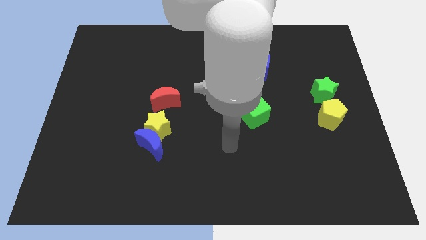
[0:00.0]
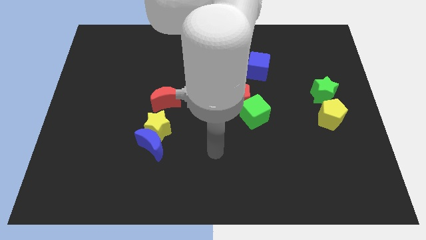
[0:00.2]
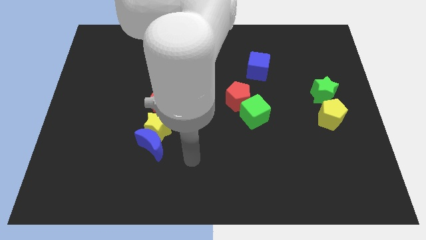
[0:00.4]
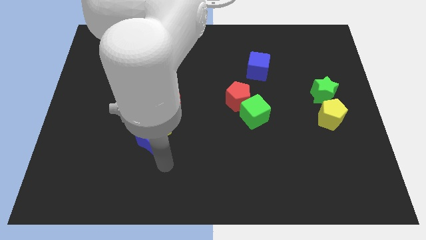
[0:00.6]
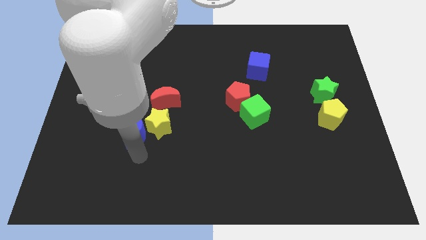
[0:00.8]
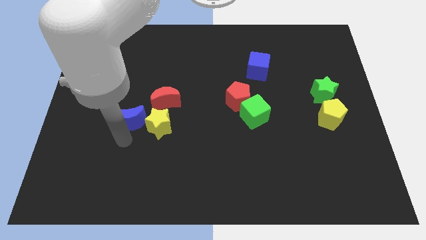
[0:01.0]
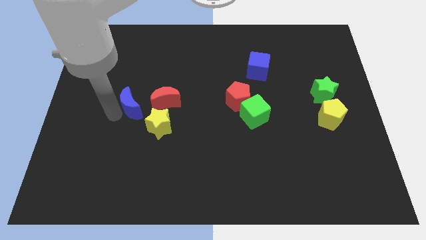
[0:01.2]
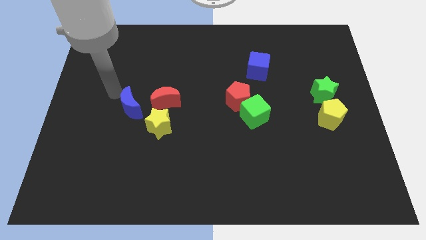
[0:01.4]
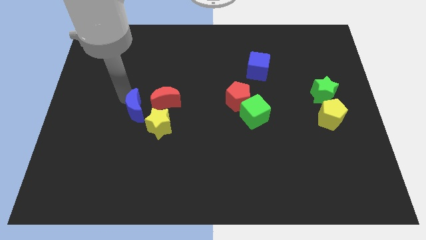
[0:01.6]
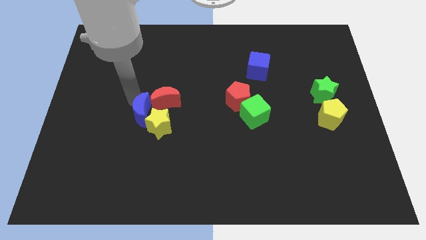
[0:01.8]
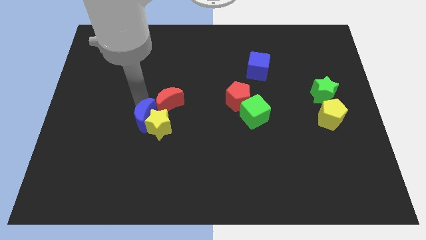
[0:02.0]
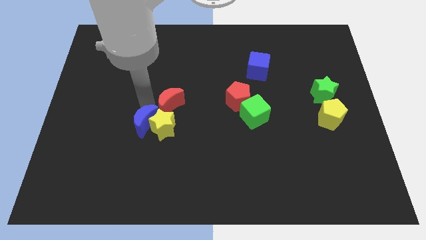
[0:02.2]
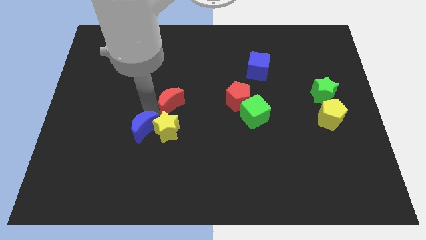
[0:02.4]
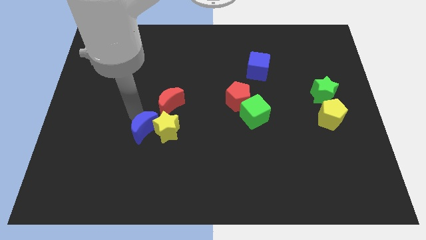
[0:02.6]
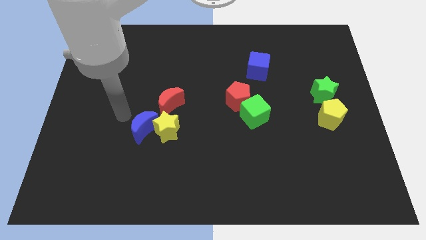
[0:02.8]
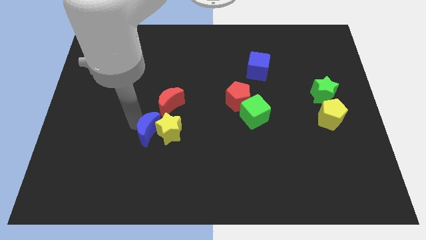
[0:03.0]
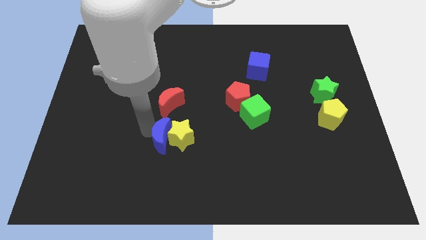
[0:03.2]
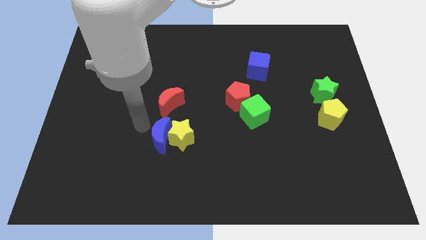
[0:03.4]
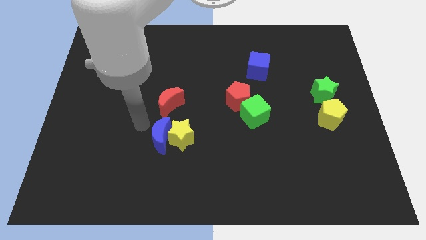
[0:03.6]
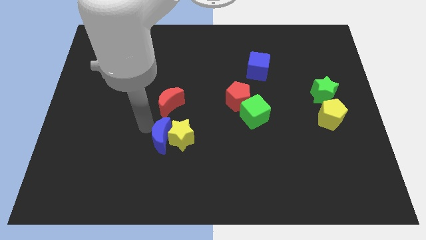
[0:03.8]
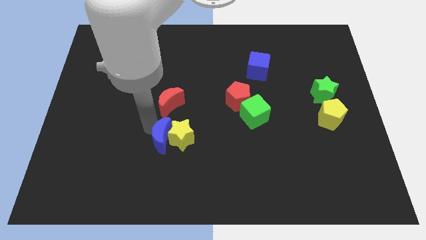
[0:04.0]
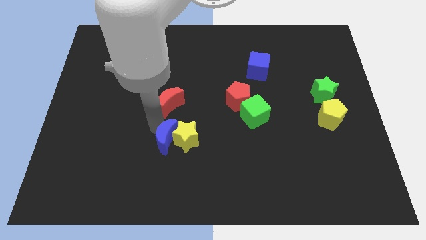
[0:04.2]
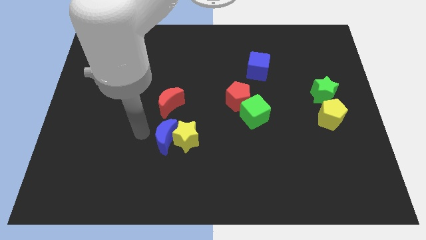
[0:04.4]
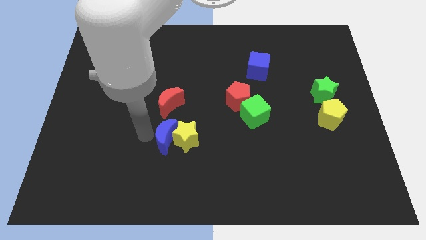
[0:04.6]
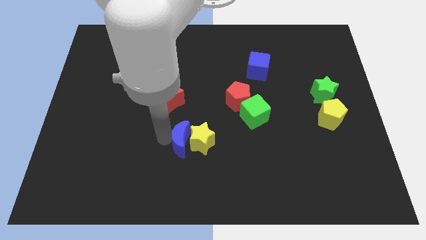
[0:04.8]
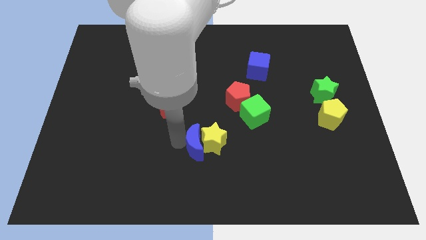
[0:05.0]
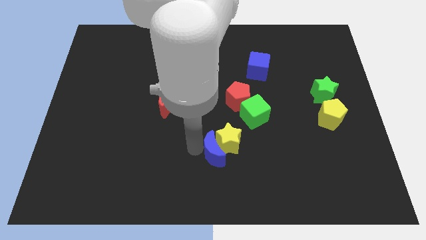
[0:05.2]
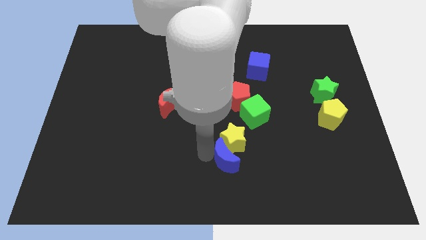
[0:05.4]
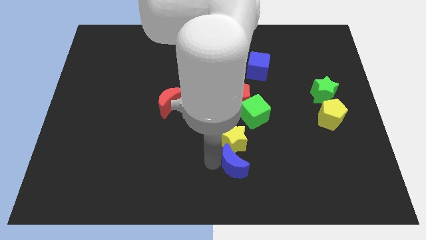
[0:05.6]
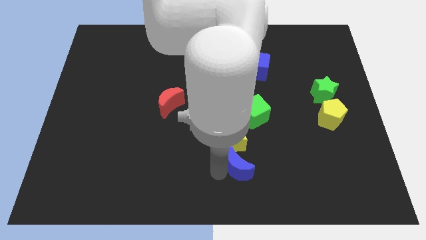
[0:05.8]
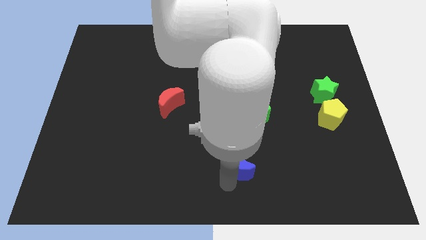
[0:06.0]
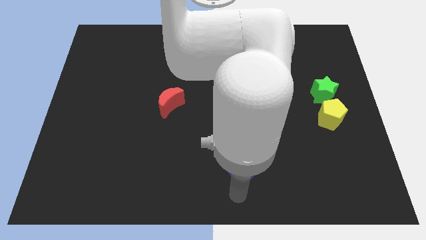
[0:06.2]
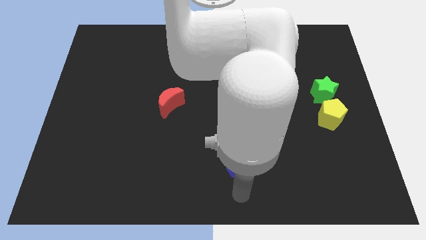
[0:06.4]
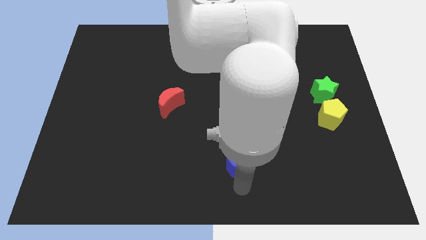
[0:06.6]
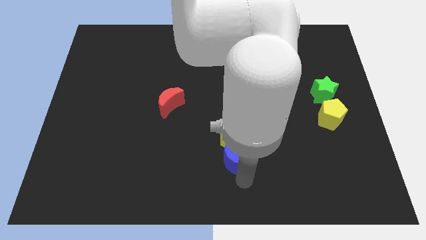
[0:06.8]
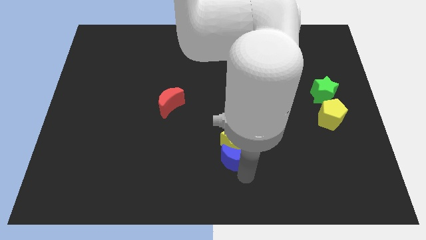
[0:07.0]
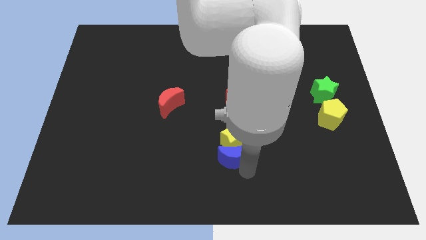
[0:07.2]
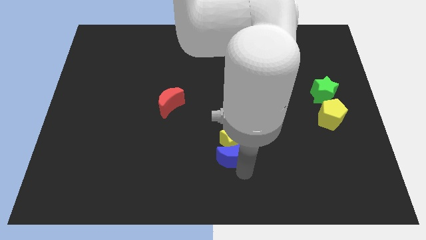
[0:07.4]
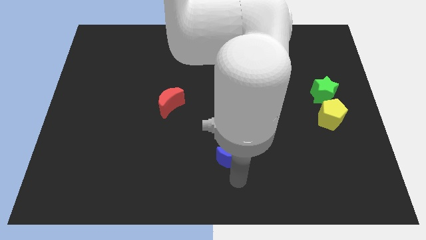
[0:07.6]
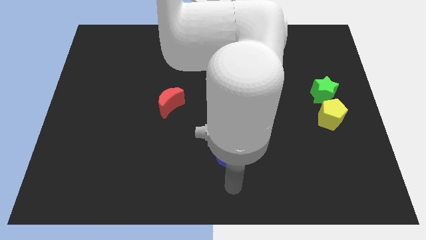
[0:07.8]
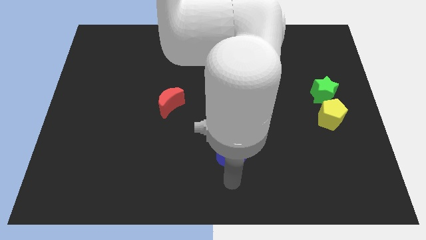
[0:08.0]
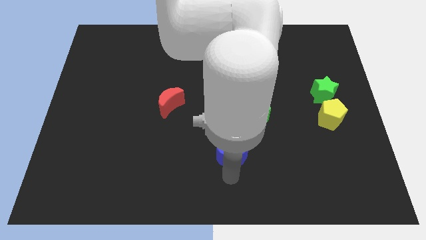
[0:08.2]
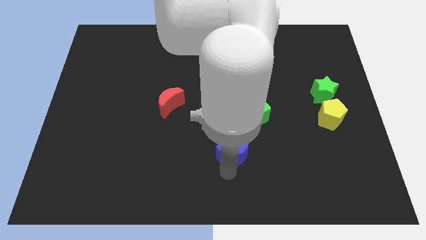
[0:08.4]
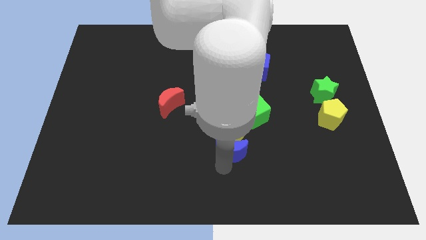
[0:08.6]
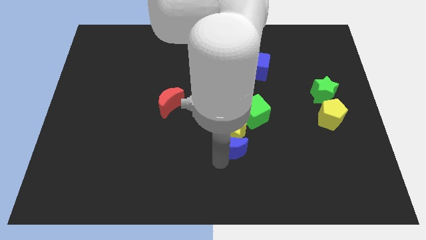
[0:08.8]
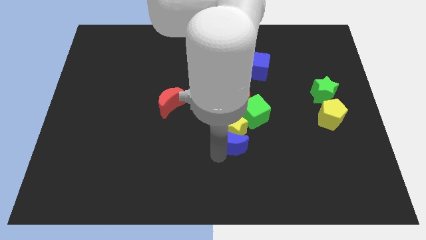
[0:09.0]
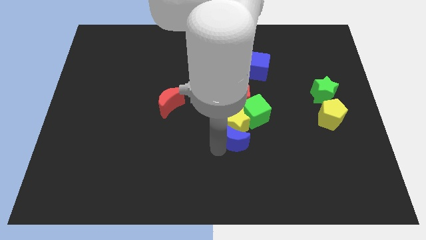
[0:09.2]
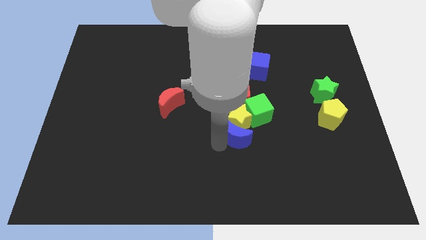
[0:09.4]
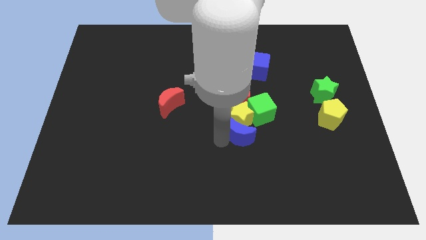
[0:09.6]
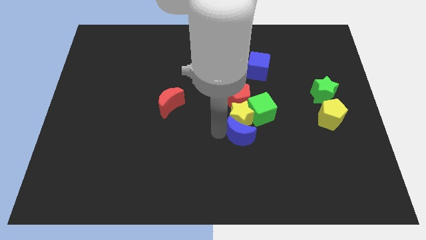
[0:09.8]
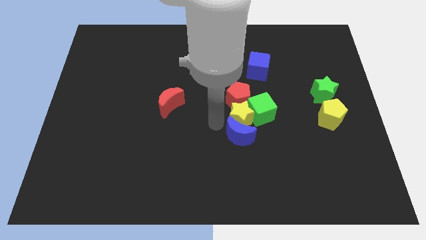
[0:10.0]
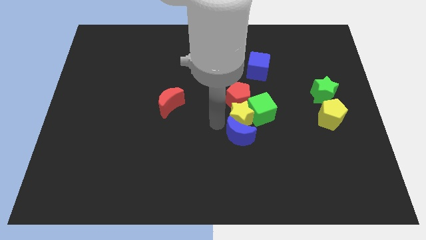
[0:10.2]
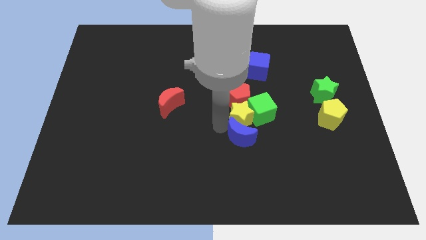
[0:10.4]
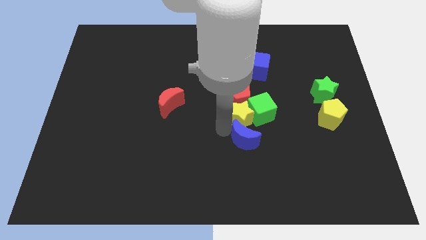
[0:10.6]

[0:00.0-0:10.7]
move the blue moon right

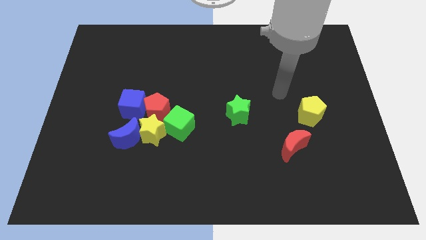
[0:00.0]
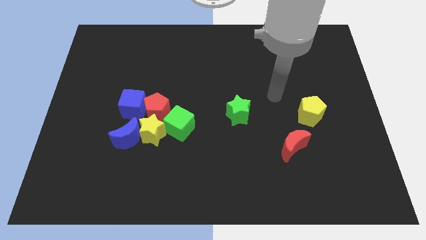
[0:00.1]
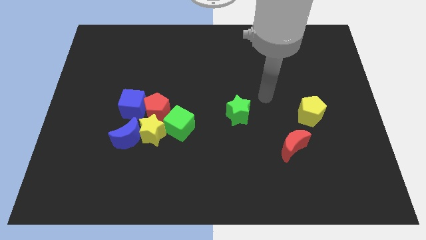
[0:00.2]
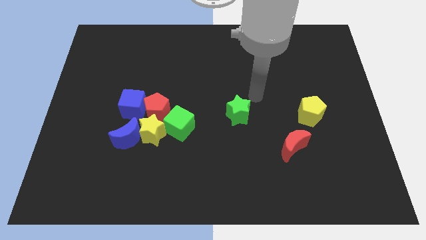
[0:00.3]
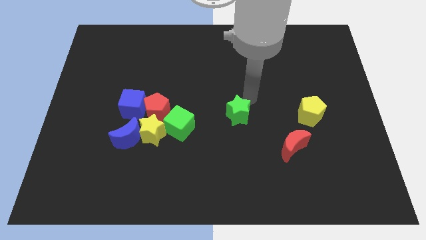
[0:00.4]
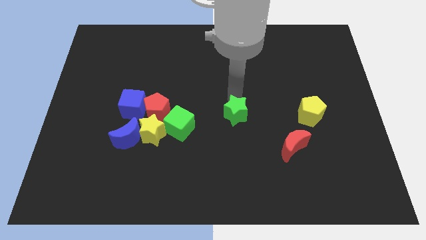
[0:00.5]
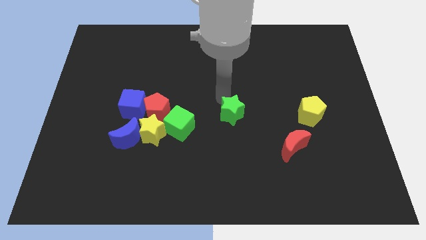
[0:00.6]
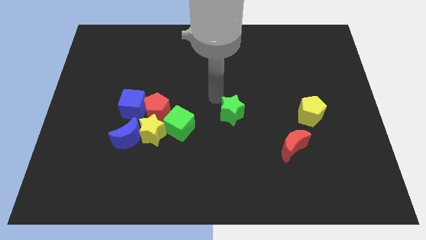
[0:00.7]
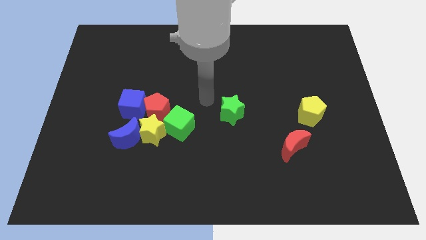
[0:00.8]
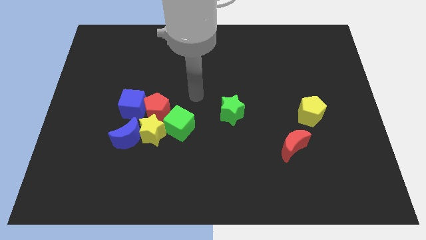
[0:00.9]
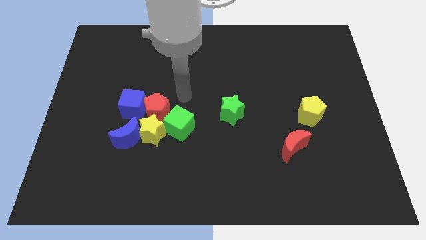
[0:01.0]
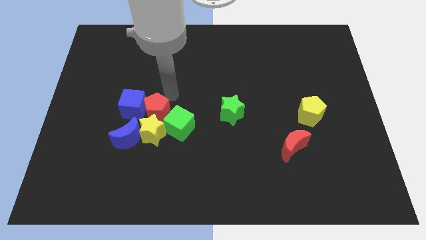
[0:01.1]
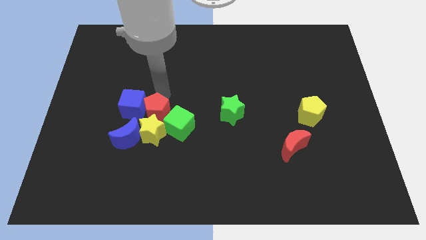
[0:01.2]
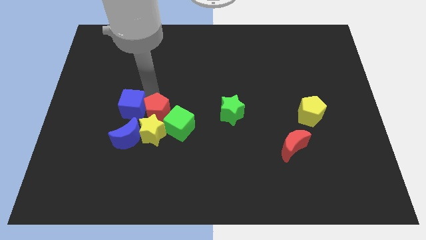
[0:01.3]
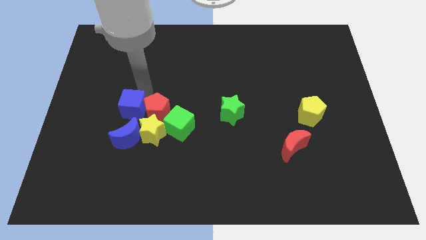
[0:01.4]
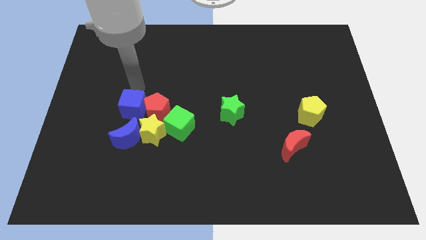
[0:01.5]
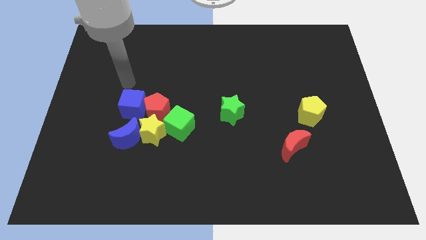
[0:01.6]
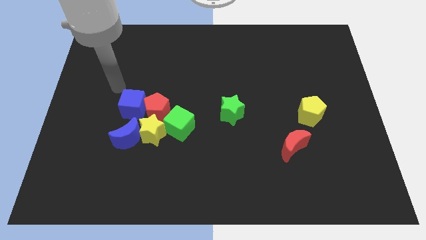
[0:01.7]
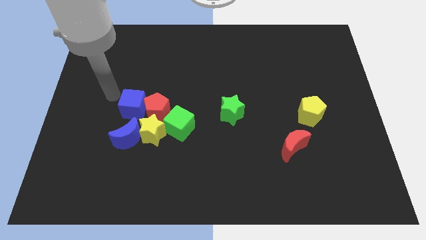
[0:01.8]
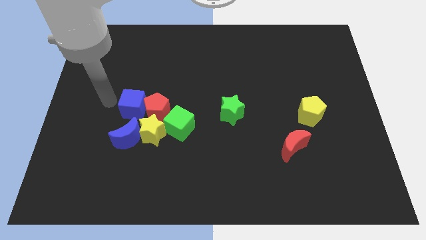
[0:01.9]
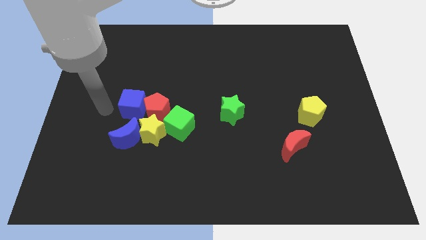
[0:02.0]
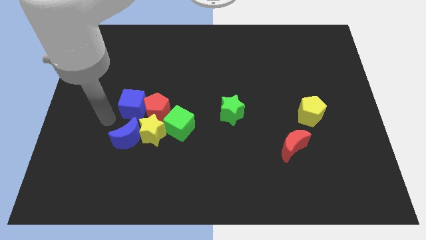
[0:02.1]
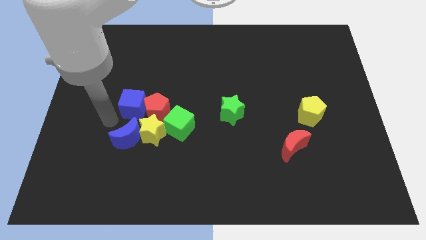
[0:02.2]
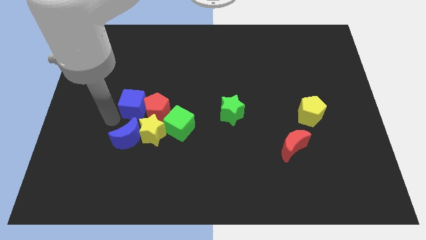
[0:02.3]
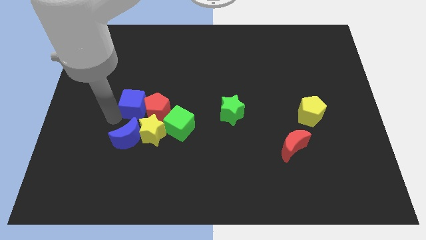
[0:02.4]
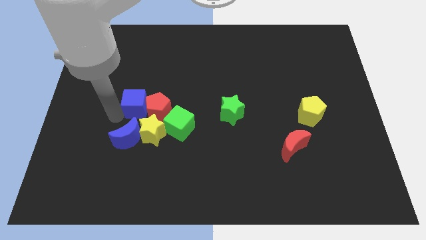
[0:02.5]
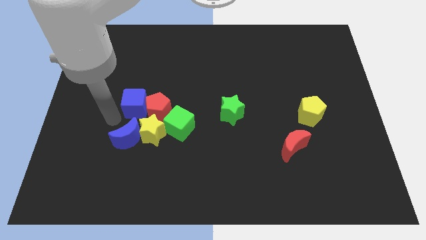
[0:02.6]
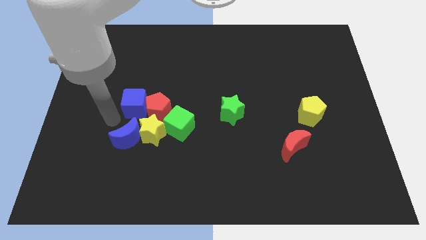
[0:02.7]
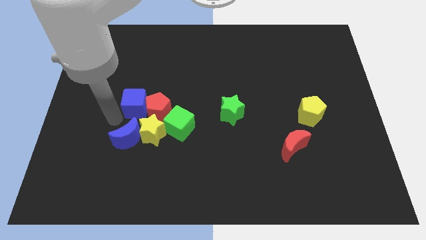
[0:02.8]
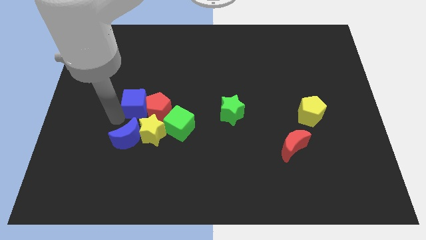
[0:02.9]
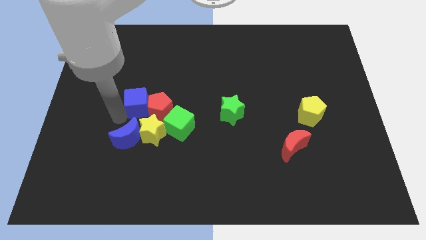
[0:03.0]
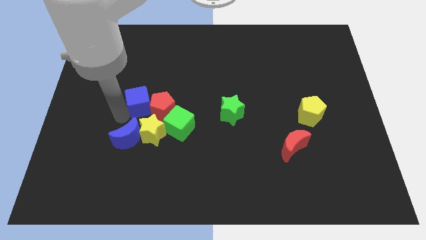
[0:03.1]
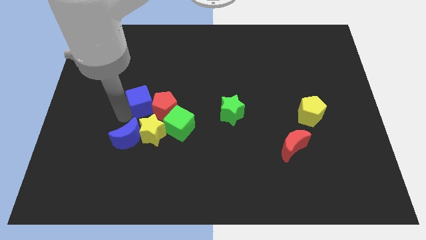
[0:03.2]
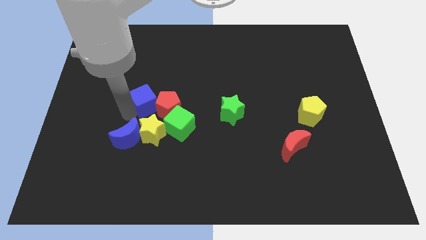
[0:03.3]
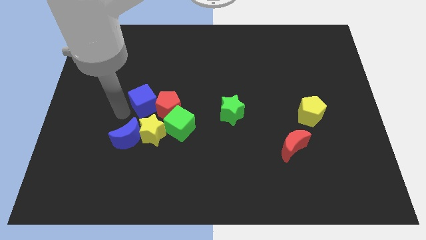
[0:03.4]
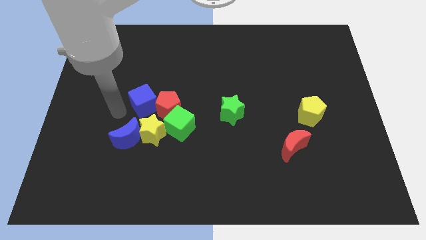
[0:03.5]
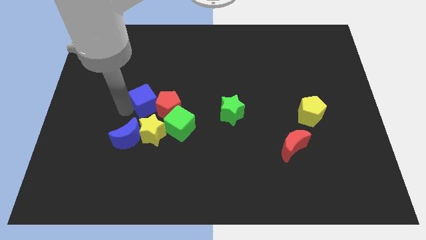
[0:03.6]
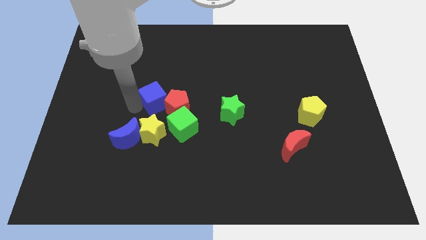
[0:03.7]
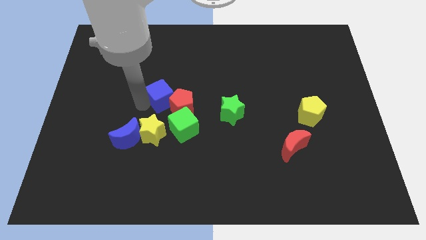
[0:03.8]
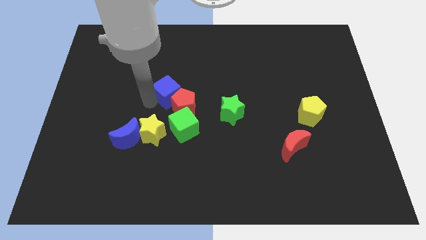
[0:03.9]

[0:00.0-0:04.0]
move the blue cube a little to the right
